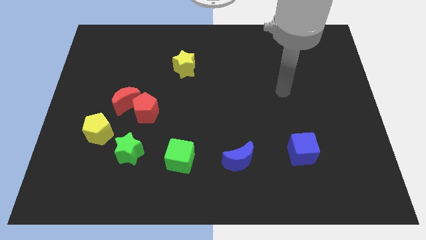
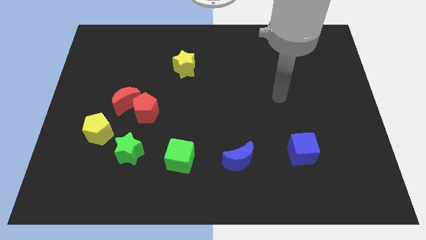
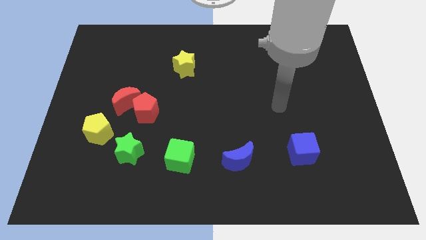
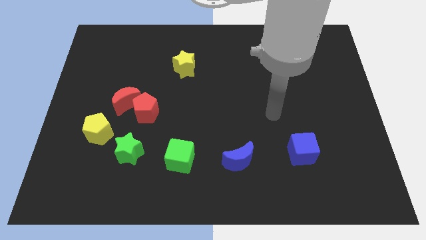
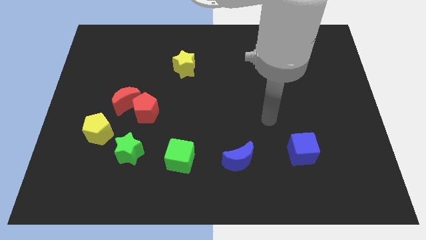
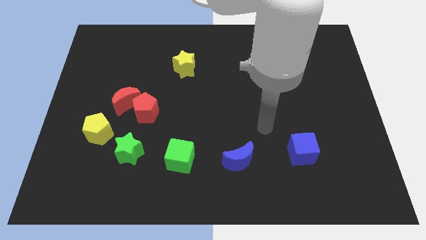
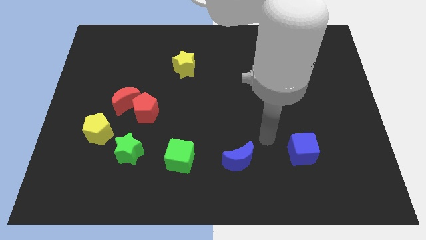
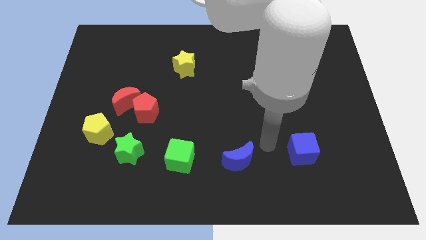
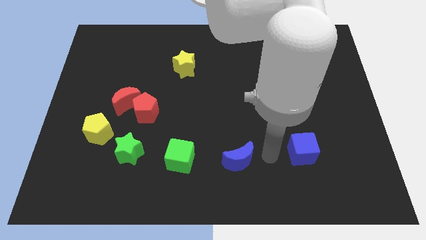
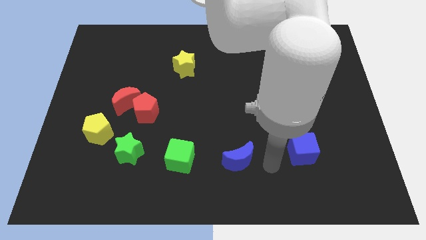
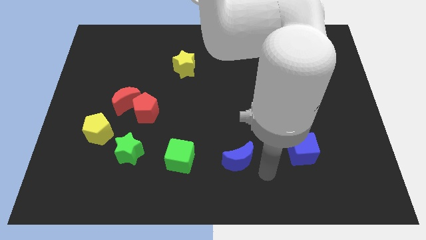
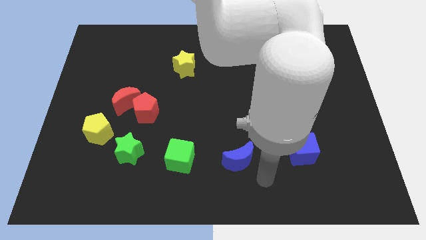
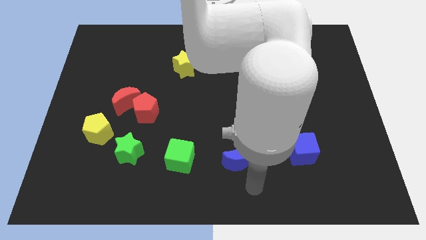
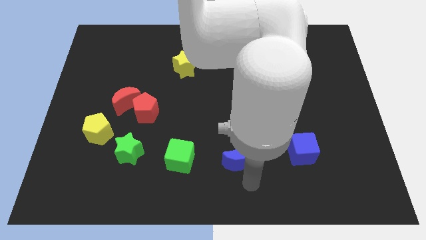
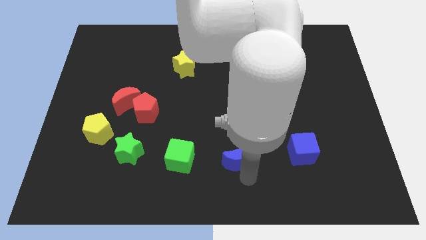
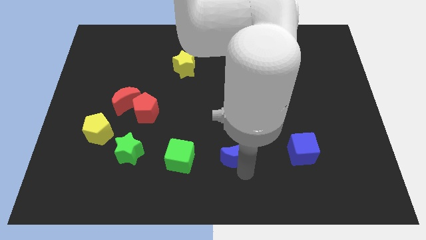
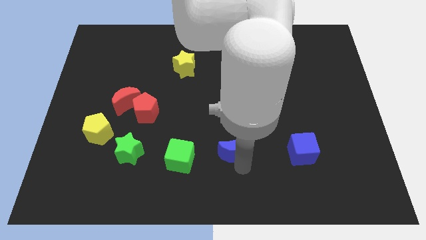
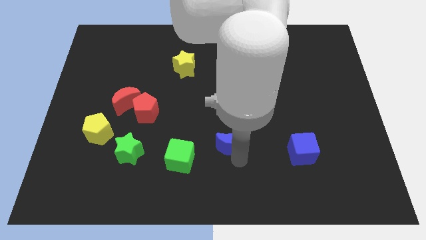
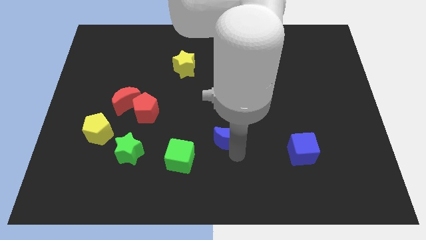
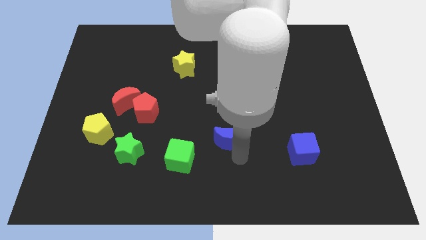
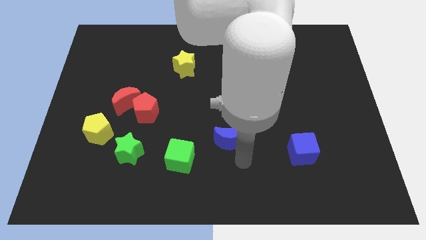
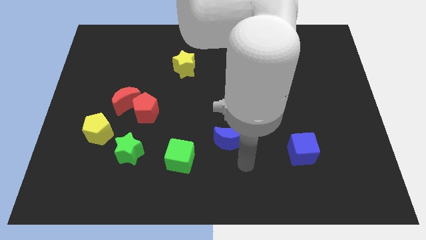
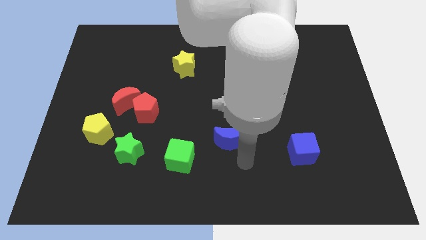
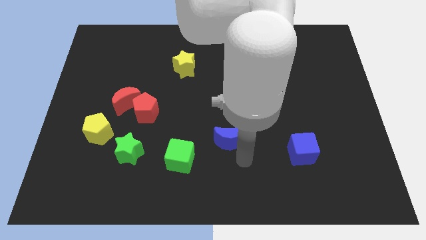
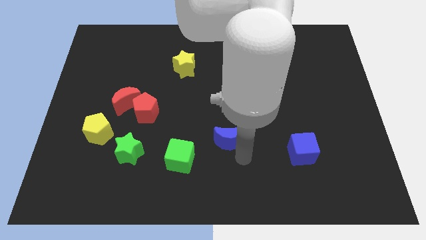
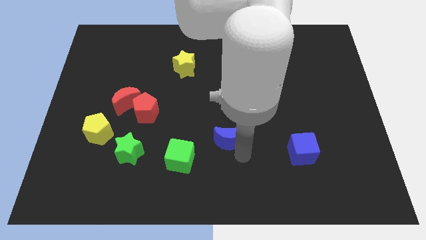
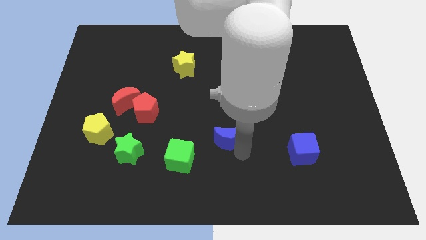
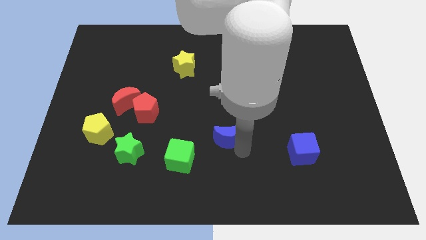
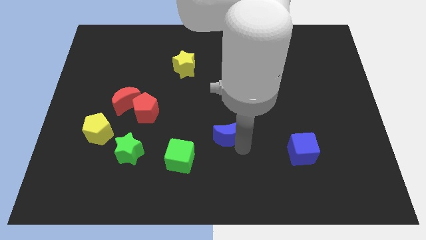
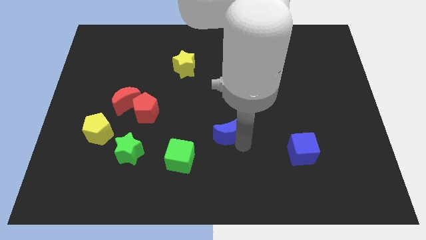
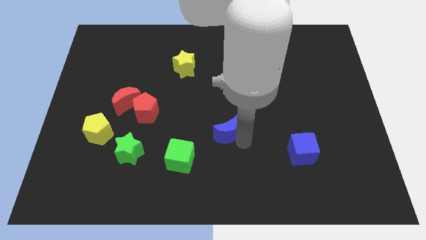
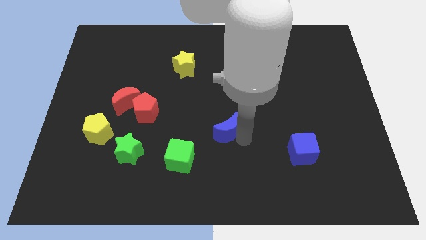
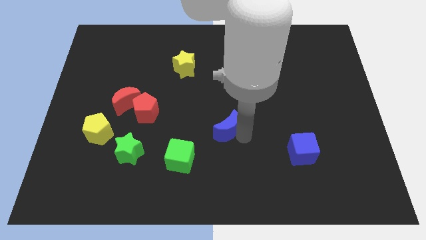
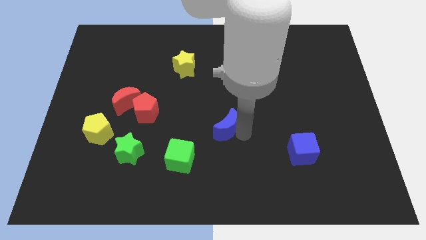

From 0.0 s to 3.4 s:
slide the blue moon up and left diagonally slightly

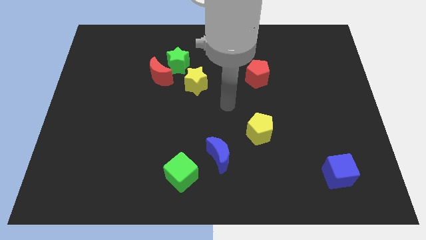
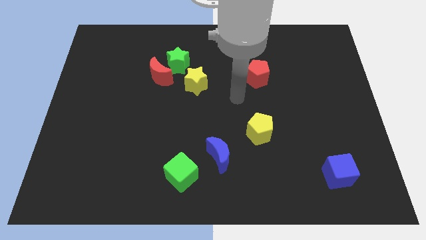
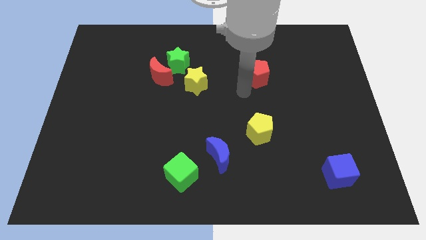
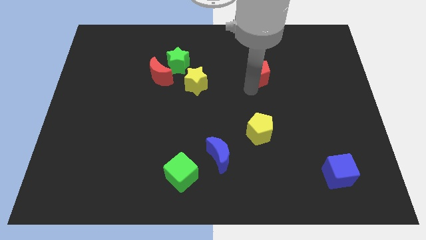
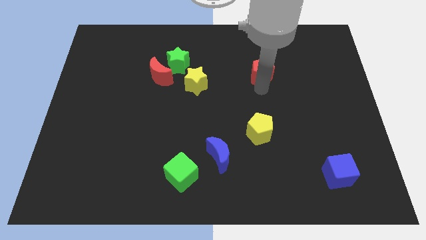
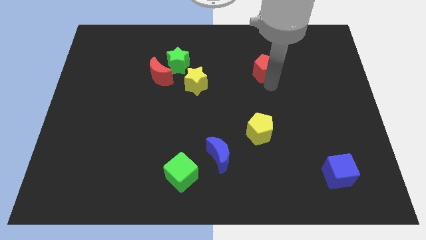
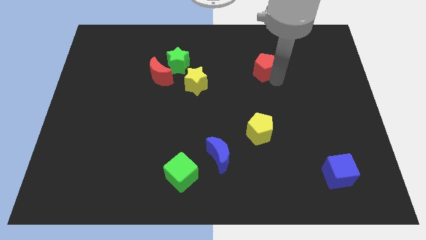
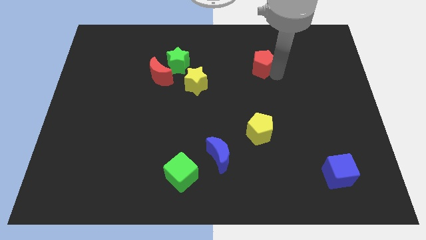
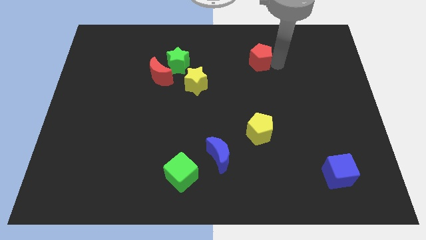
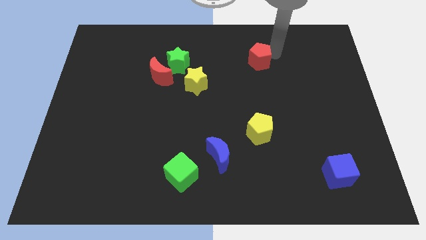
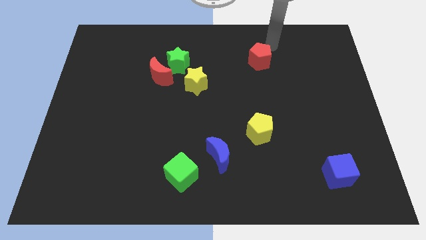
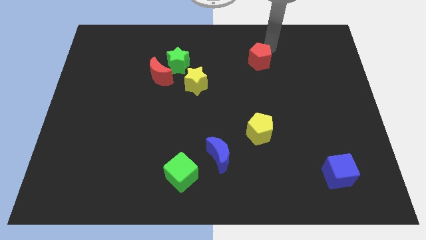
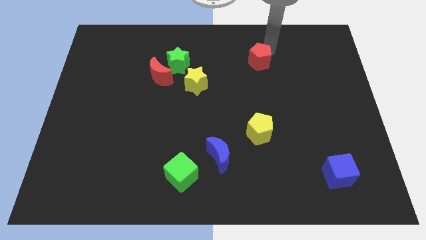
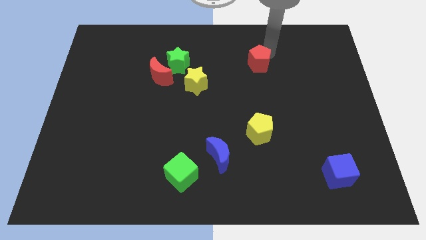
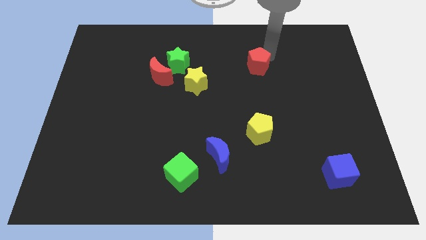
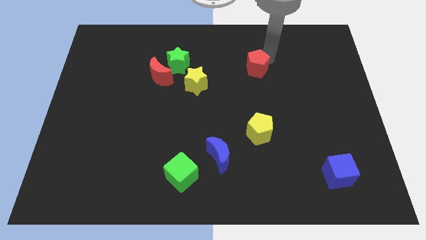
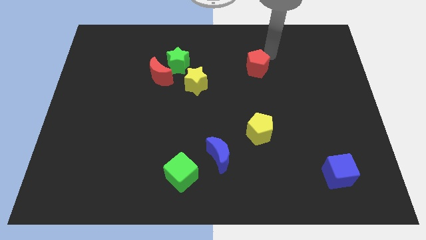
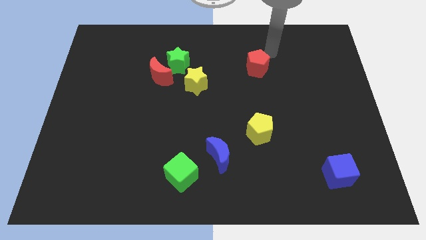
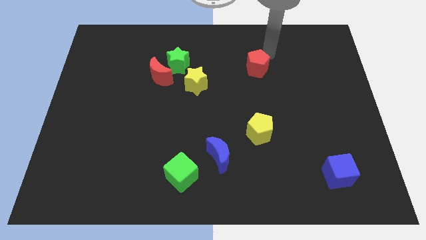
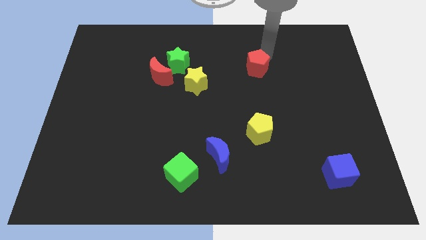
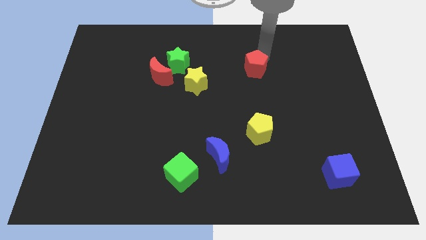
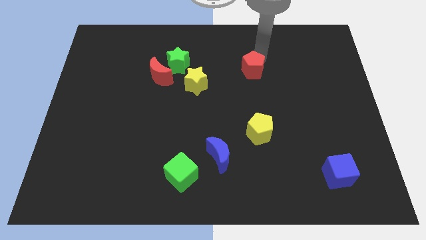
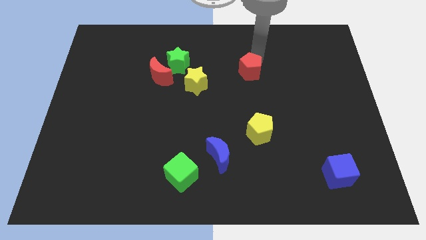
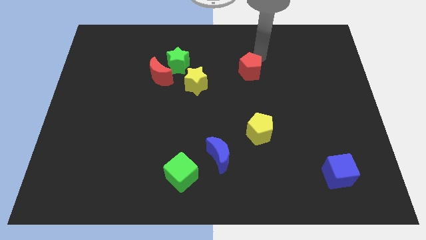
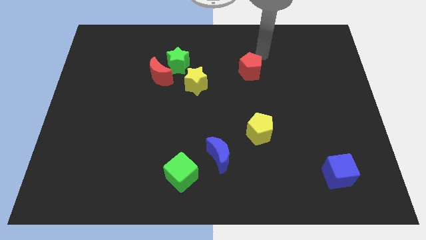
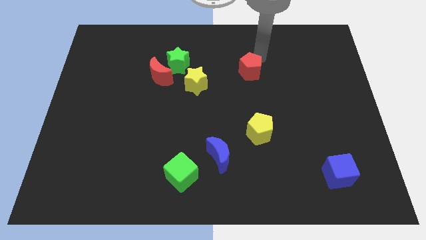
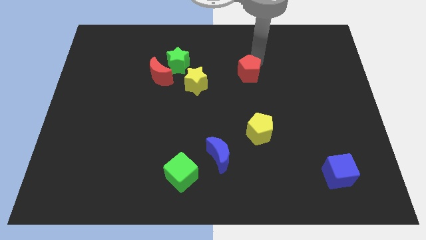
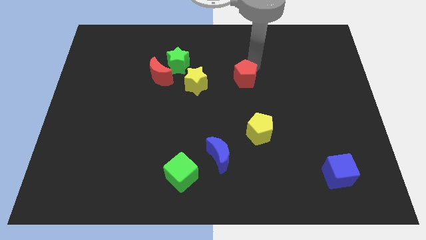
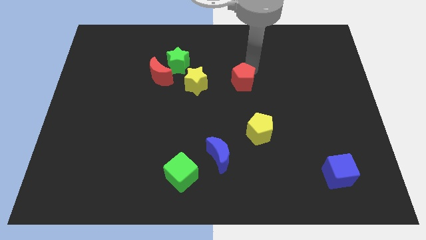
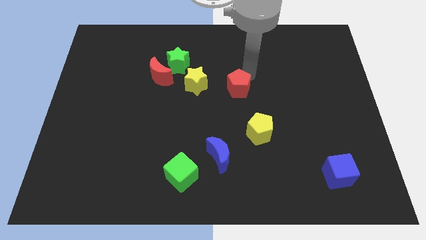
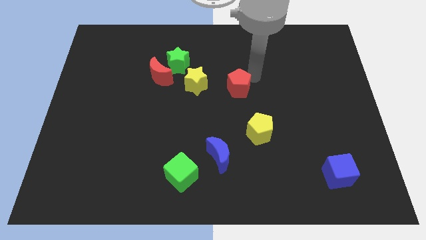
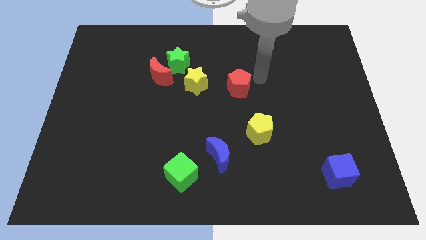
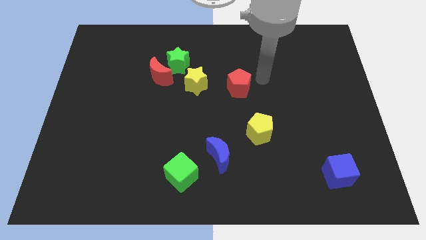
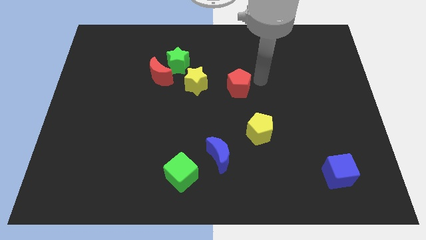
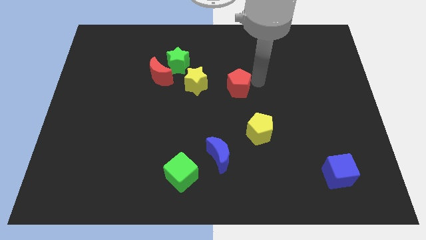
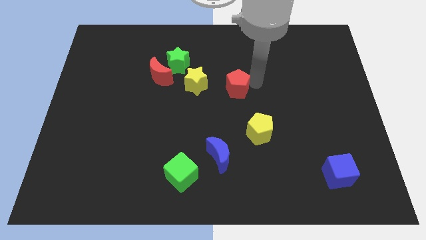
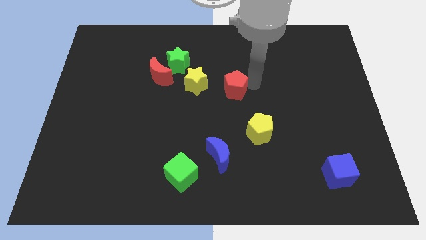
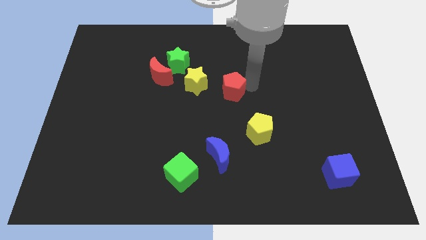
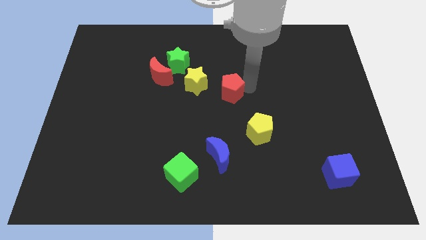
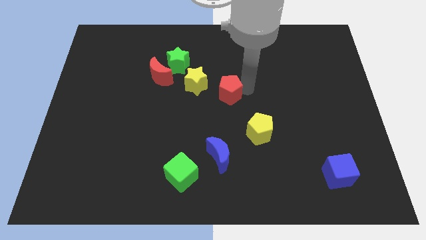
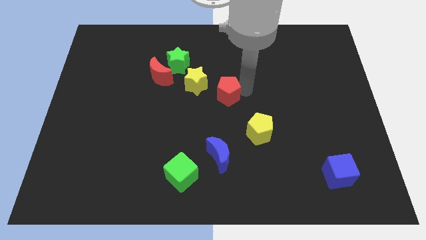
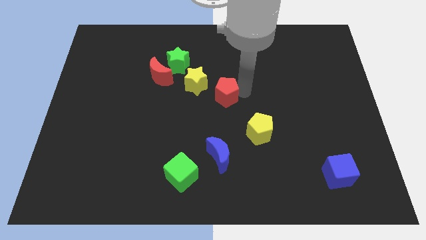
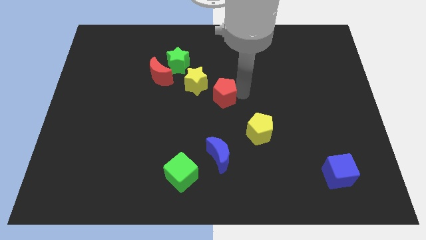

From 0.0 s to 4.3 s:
slide the red pentagon left somewhat
